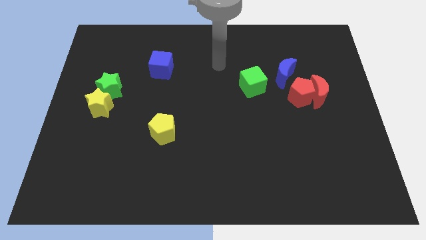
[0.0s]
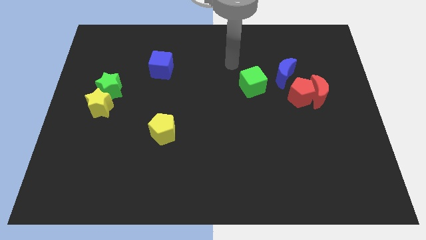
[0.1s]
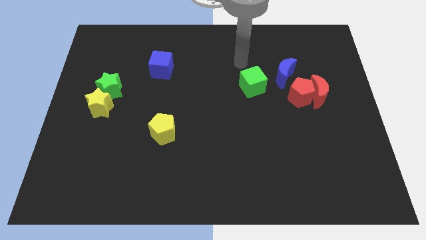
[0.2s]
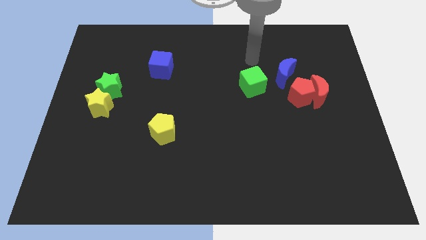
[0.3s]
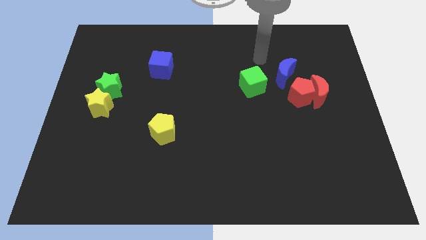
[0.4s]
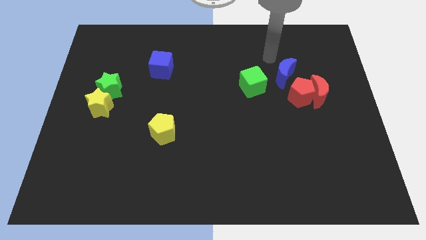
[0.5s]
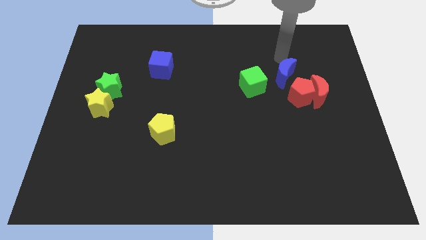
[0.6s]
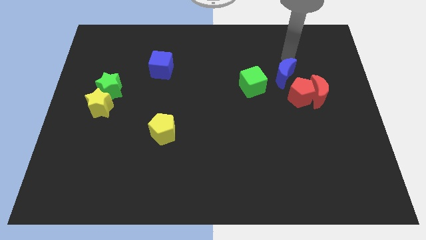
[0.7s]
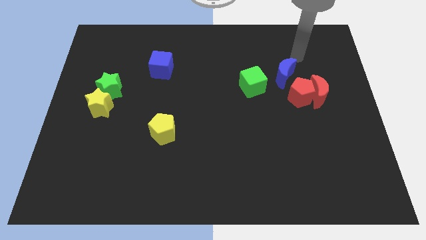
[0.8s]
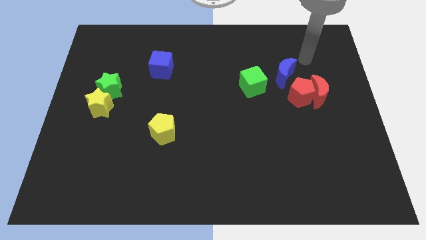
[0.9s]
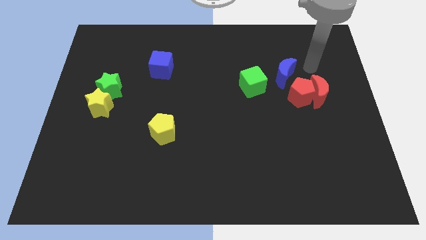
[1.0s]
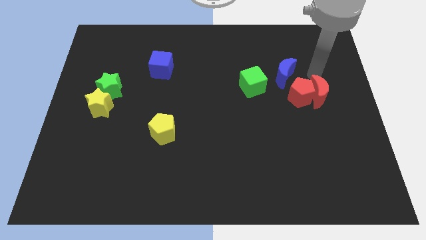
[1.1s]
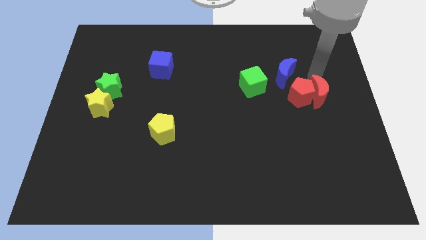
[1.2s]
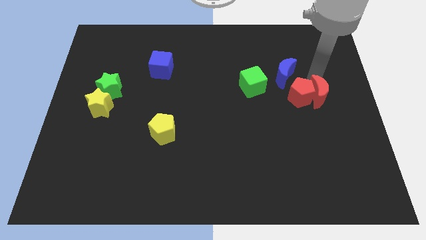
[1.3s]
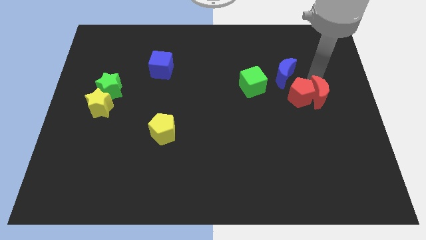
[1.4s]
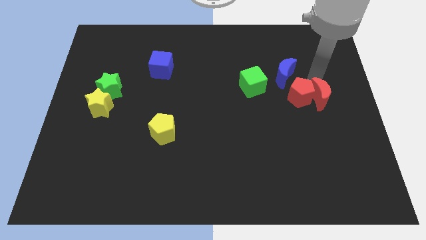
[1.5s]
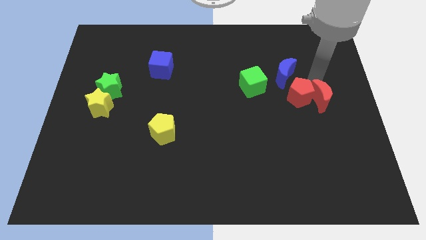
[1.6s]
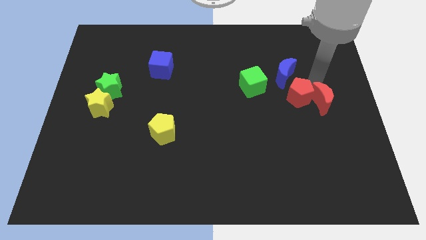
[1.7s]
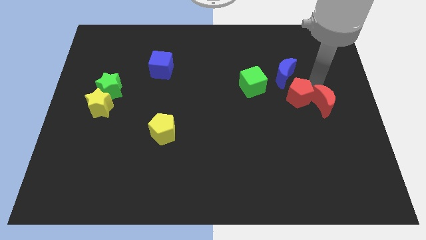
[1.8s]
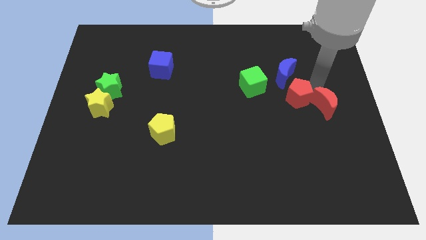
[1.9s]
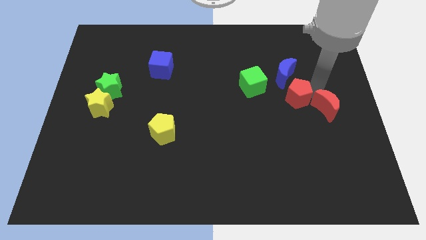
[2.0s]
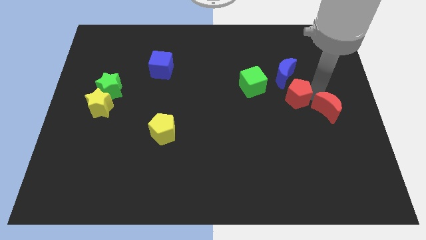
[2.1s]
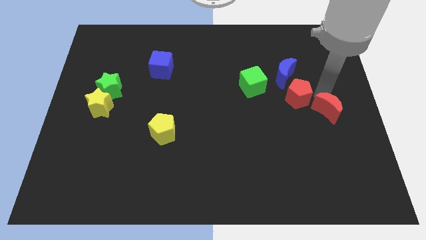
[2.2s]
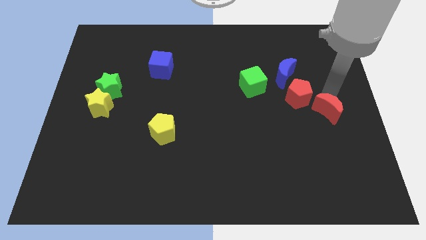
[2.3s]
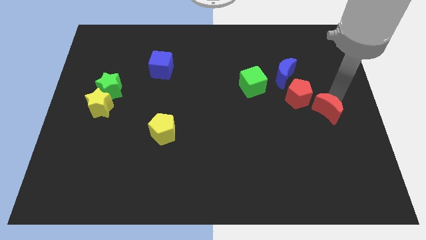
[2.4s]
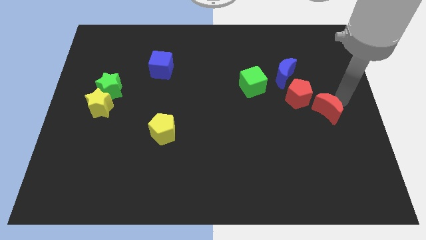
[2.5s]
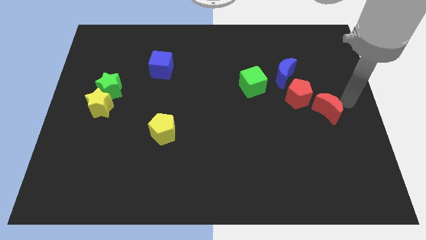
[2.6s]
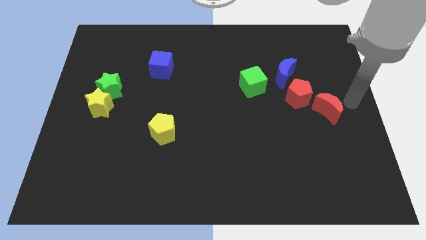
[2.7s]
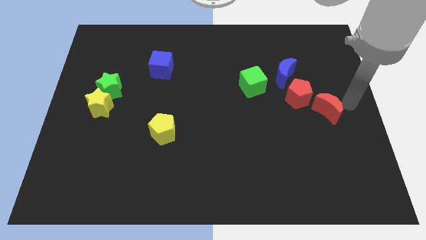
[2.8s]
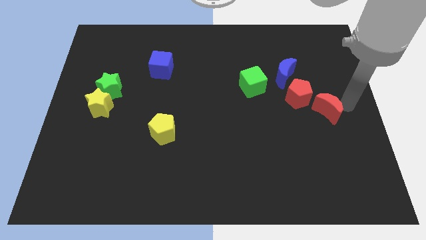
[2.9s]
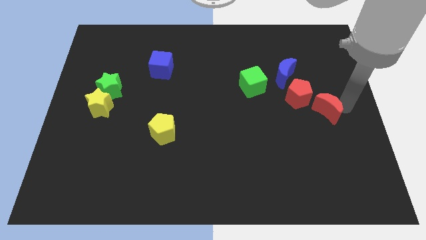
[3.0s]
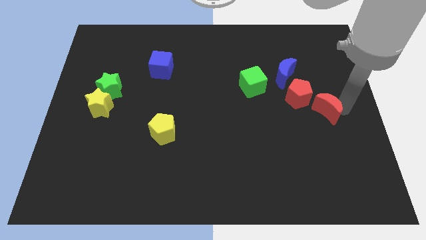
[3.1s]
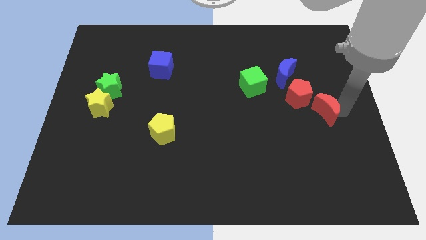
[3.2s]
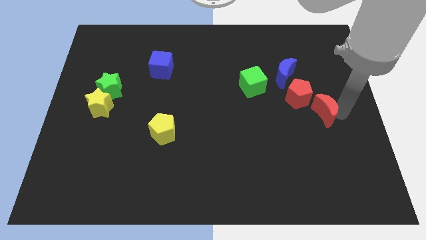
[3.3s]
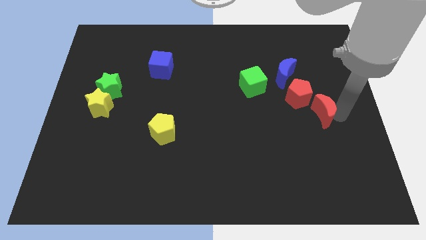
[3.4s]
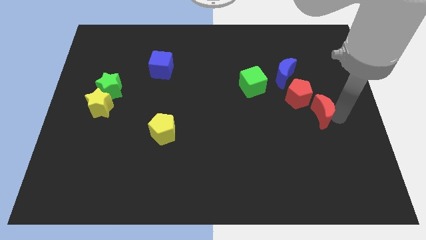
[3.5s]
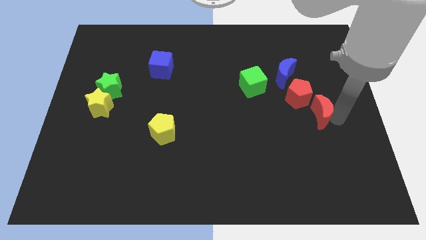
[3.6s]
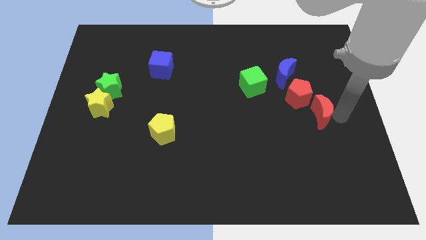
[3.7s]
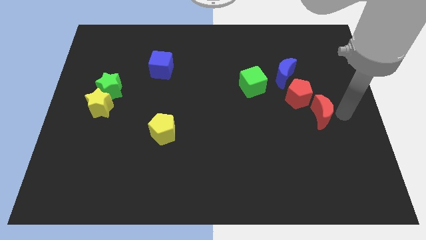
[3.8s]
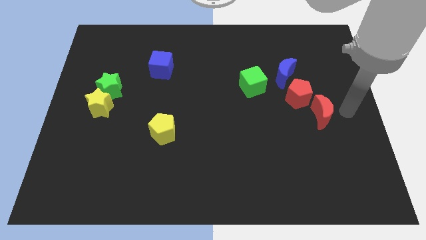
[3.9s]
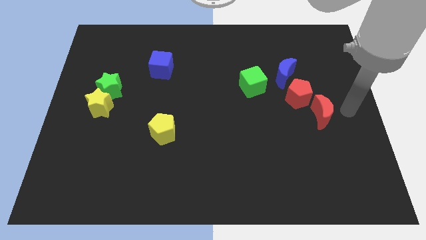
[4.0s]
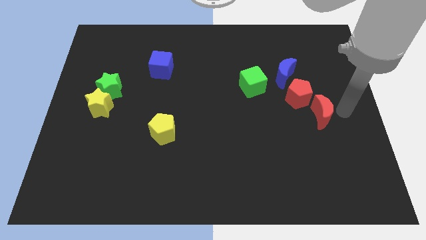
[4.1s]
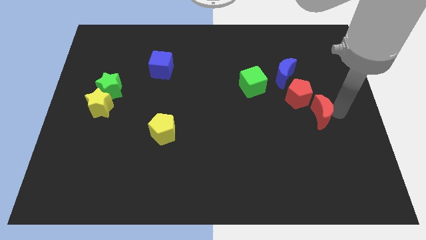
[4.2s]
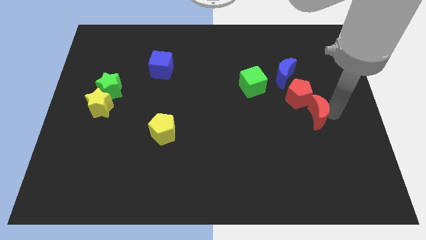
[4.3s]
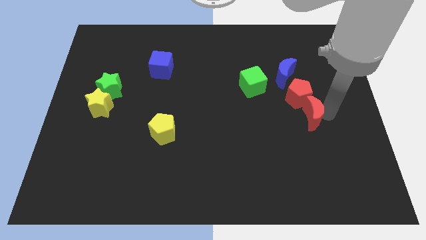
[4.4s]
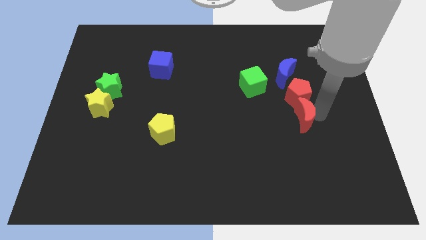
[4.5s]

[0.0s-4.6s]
slightly move the red moon downwards and then left

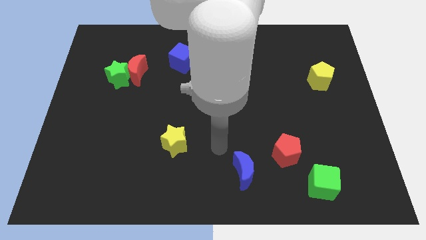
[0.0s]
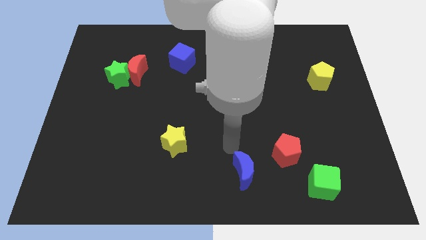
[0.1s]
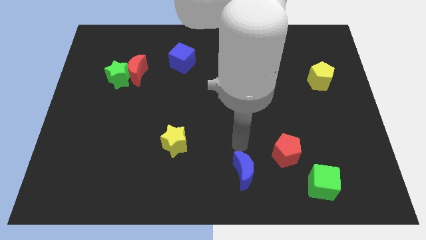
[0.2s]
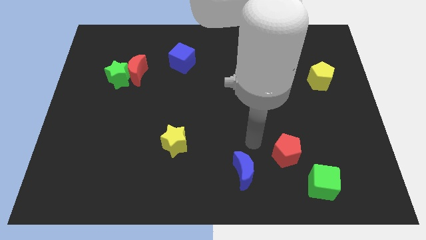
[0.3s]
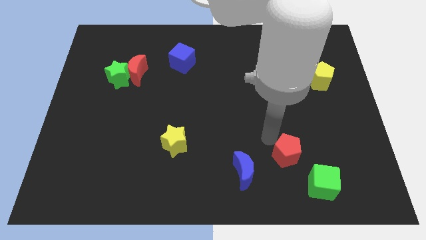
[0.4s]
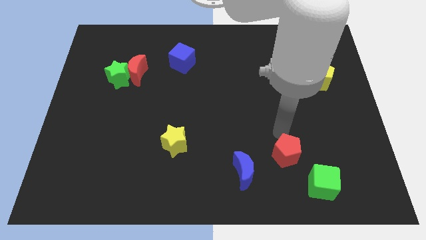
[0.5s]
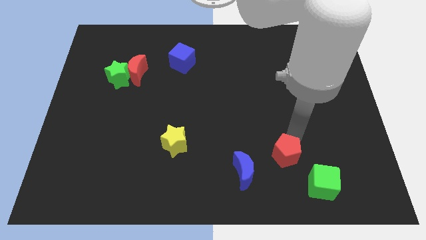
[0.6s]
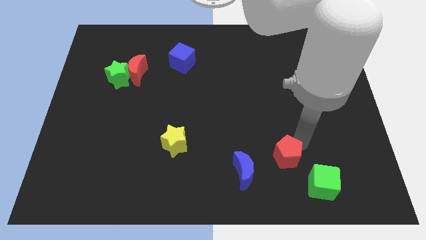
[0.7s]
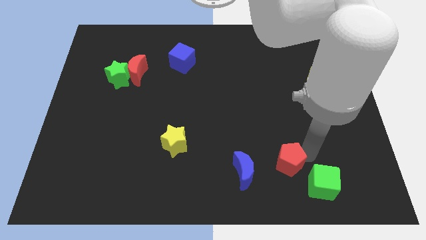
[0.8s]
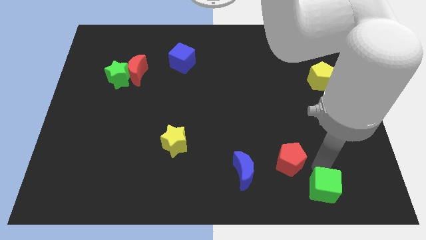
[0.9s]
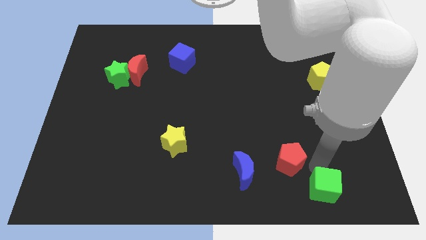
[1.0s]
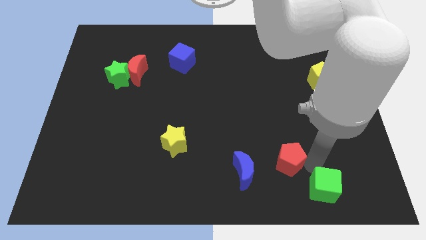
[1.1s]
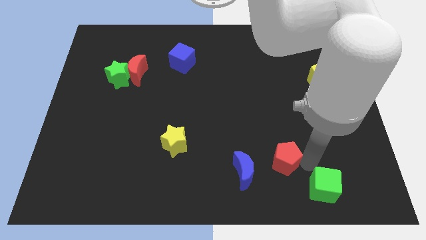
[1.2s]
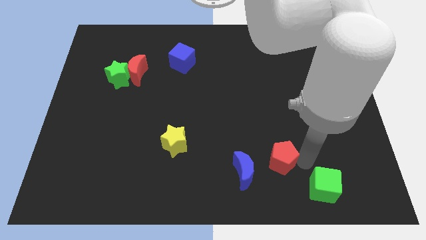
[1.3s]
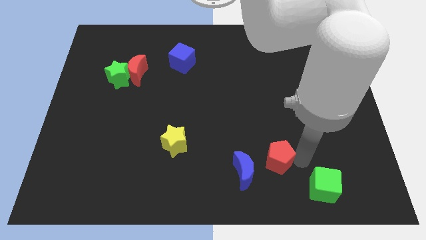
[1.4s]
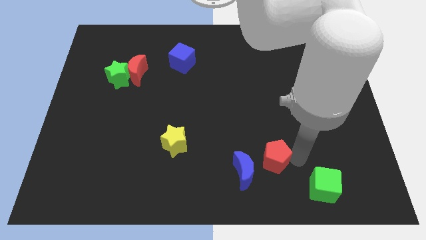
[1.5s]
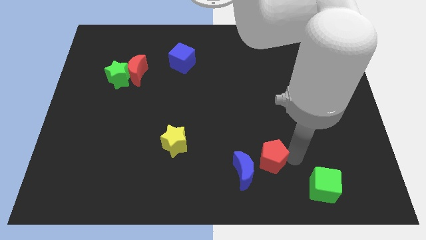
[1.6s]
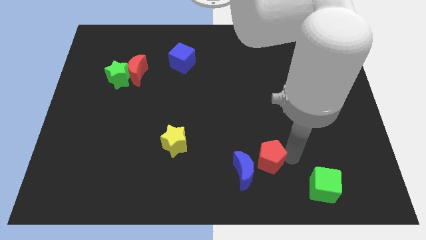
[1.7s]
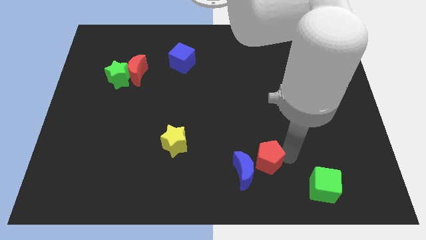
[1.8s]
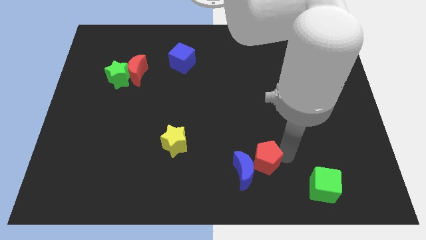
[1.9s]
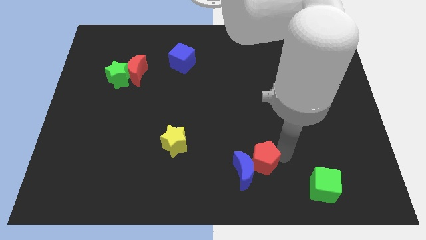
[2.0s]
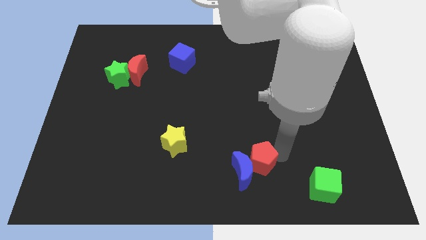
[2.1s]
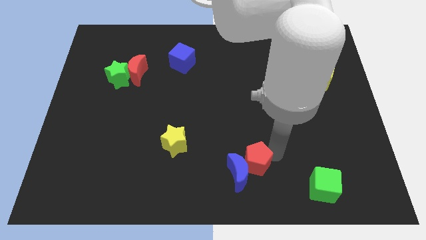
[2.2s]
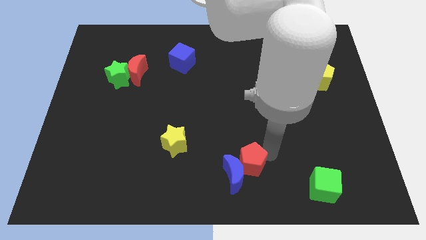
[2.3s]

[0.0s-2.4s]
slightly push the red pentagon left

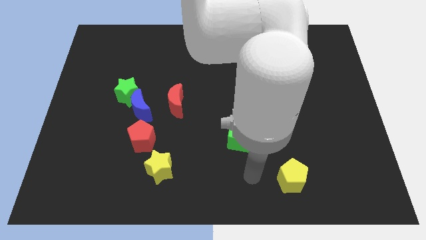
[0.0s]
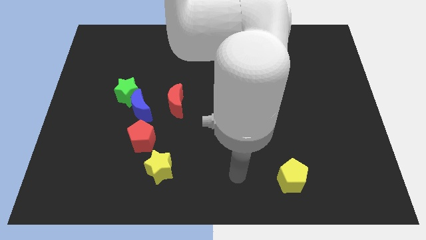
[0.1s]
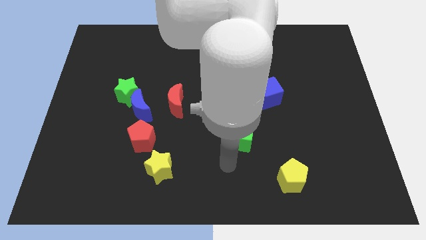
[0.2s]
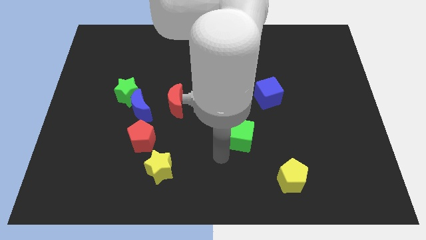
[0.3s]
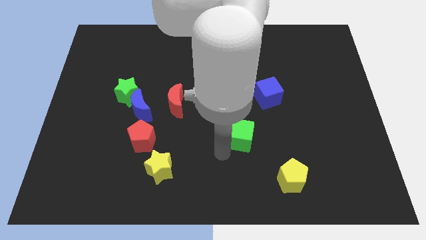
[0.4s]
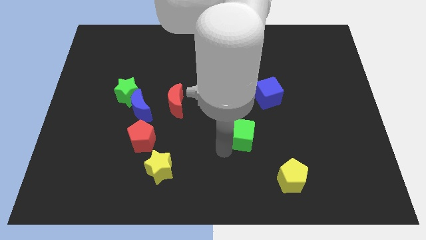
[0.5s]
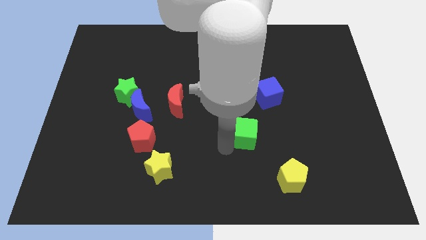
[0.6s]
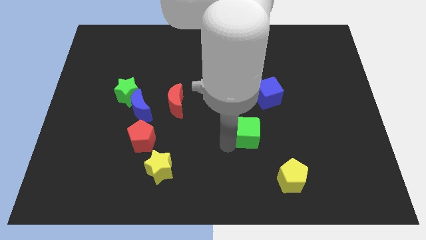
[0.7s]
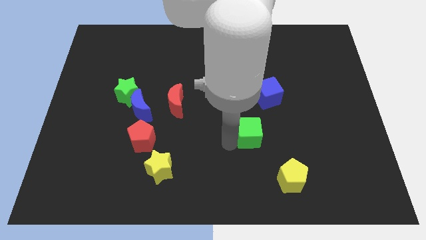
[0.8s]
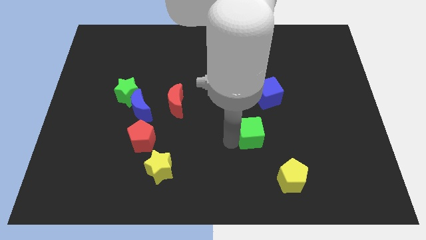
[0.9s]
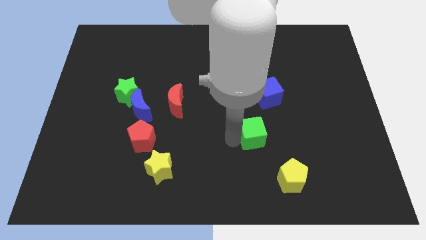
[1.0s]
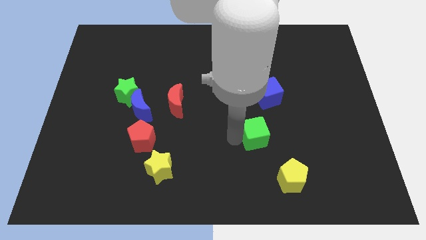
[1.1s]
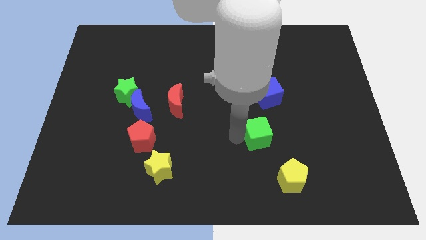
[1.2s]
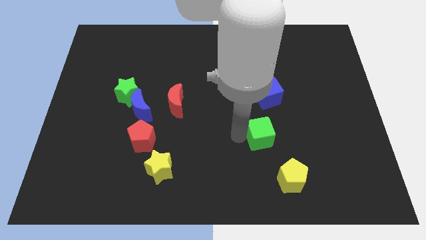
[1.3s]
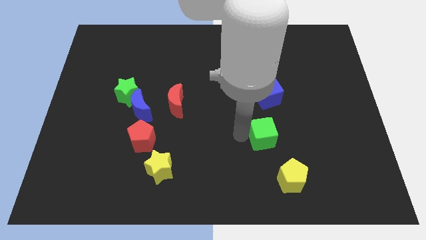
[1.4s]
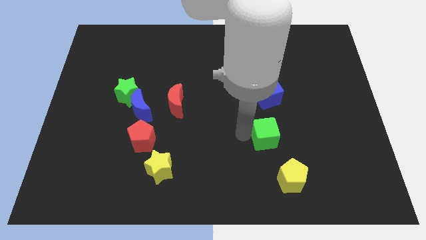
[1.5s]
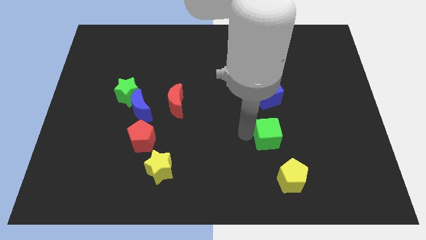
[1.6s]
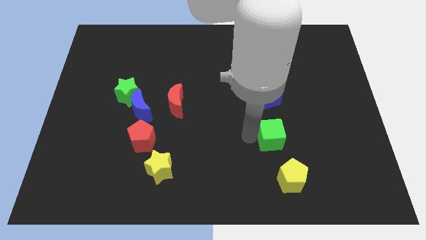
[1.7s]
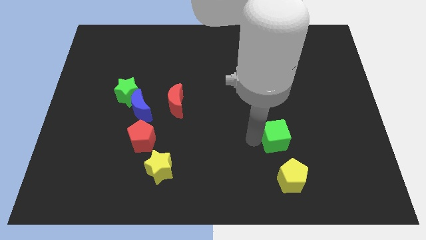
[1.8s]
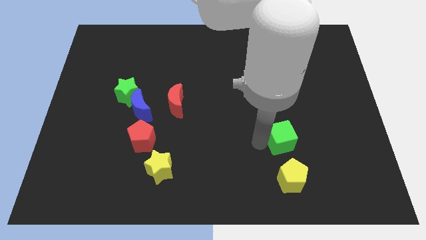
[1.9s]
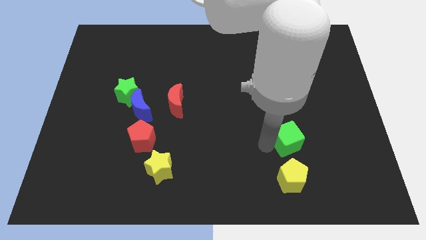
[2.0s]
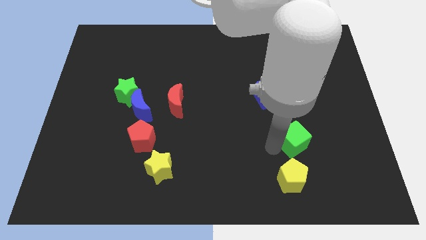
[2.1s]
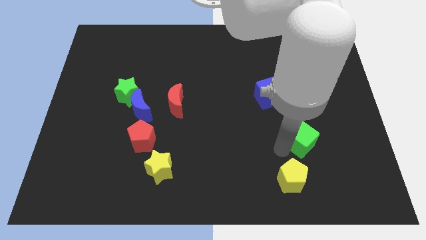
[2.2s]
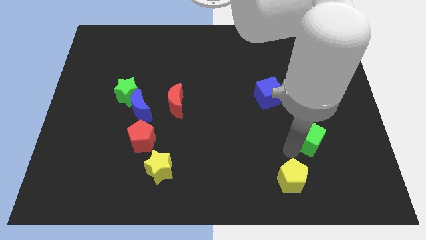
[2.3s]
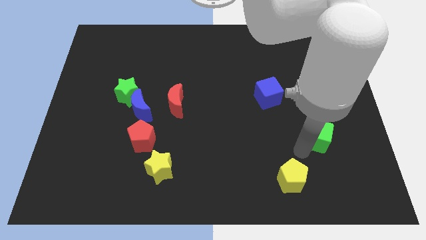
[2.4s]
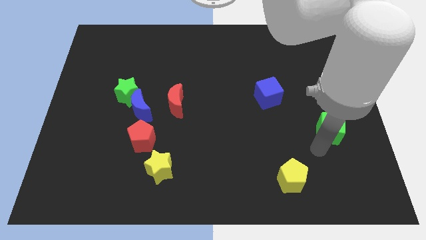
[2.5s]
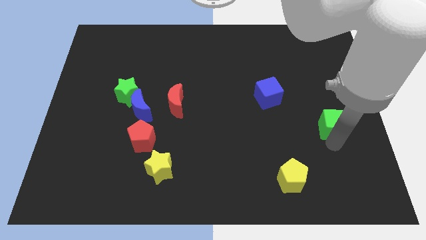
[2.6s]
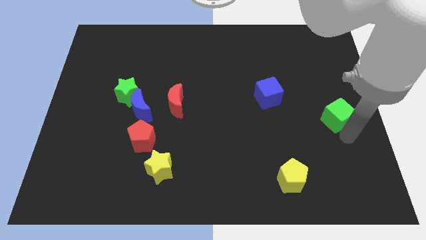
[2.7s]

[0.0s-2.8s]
slightly push the green cube upwards and then to the right
